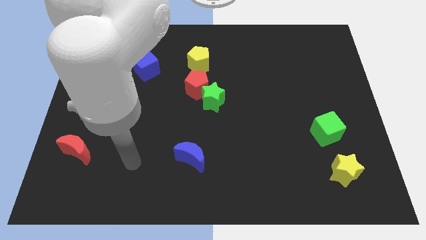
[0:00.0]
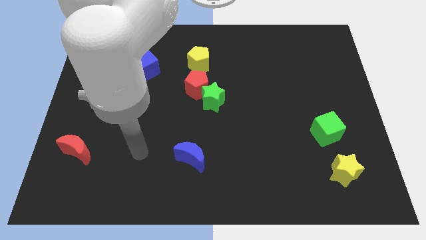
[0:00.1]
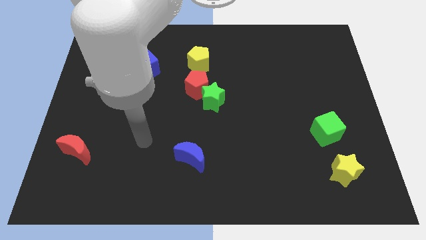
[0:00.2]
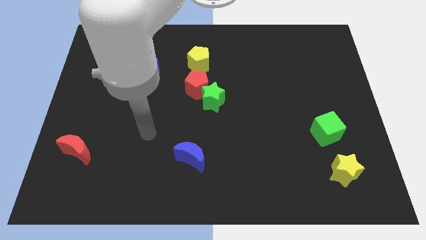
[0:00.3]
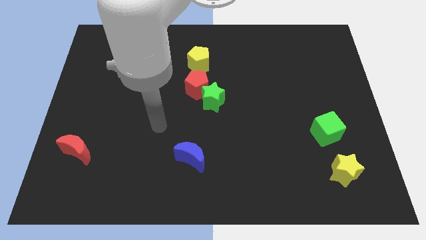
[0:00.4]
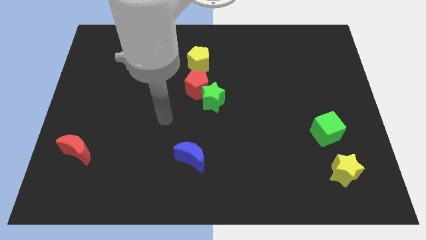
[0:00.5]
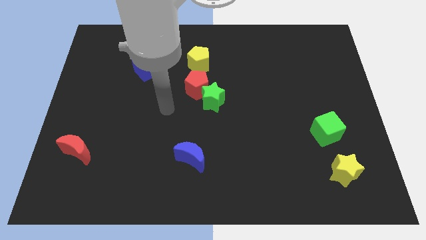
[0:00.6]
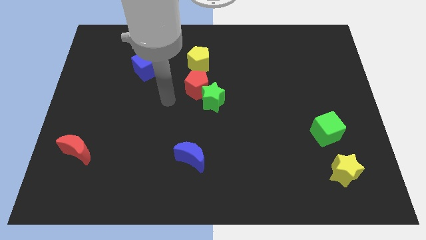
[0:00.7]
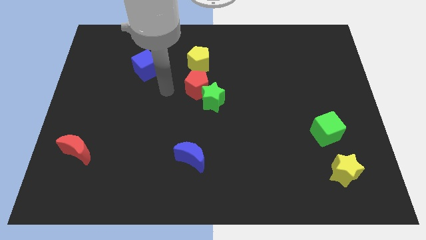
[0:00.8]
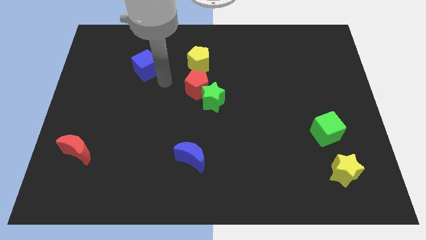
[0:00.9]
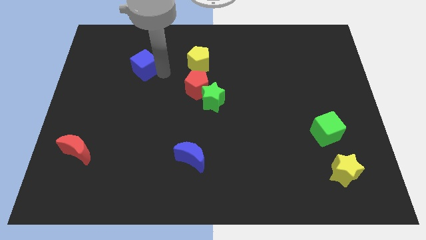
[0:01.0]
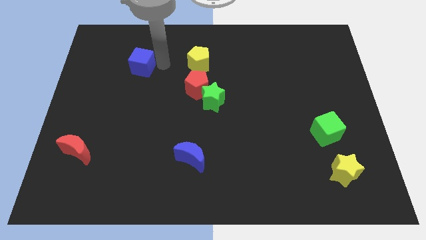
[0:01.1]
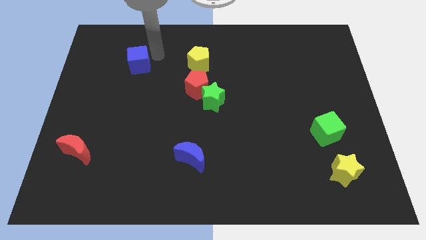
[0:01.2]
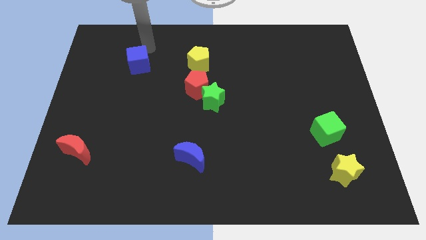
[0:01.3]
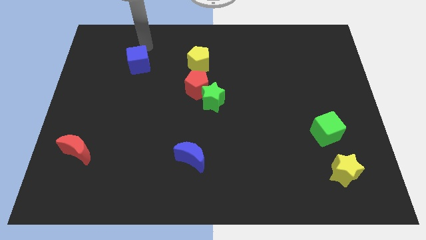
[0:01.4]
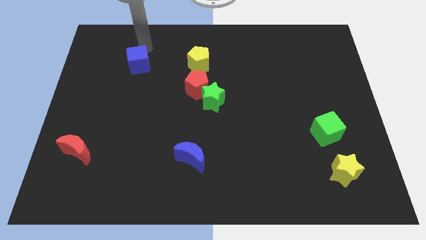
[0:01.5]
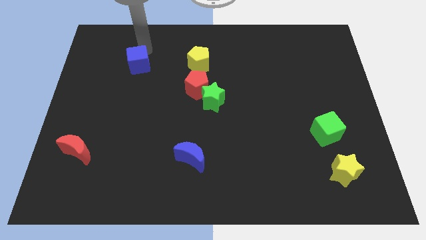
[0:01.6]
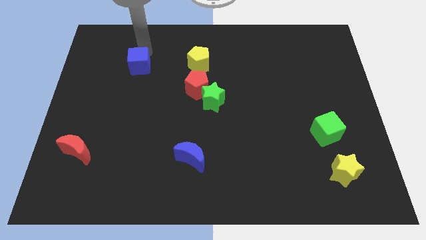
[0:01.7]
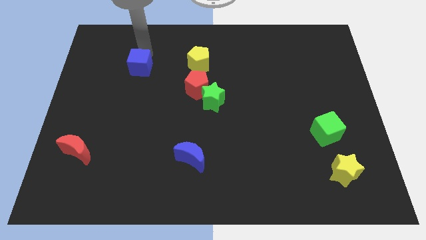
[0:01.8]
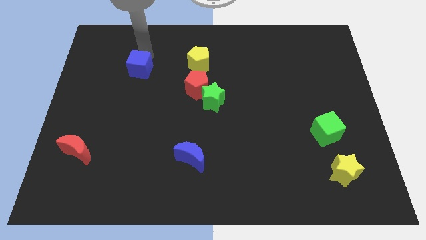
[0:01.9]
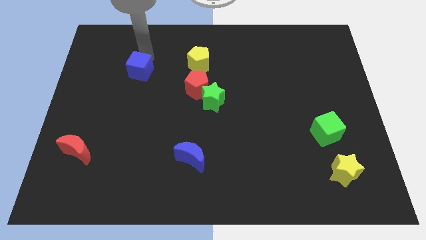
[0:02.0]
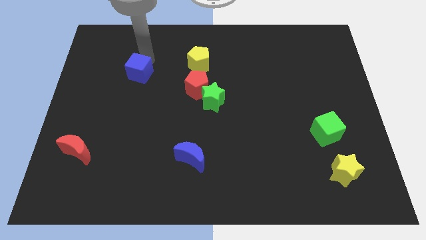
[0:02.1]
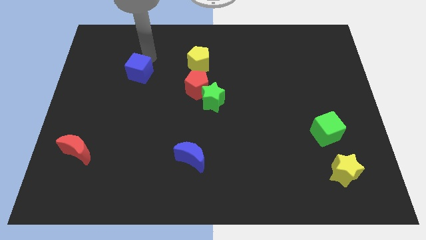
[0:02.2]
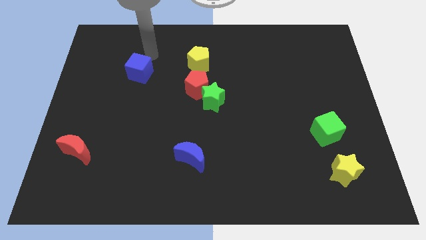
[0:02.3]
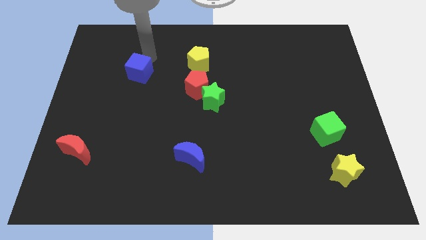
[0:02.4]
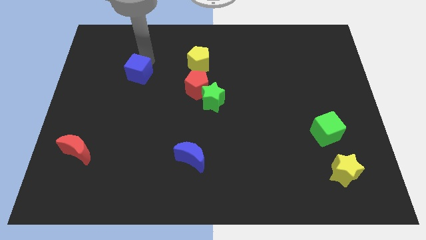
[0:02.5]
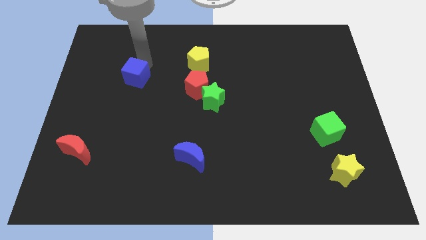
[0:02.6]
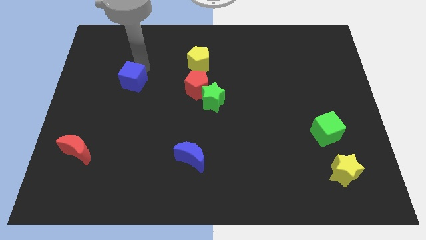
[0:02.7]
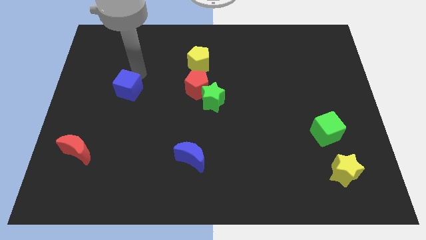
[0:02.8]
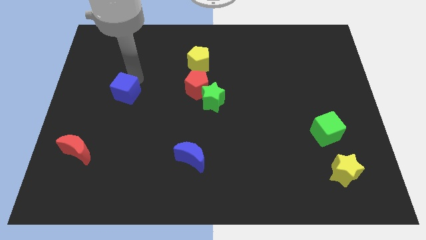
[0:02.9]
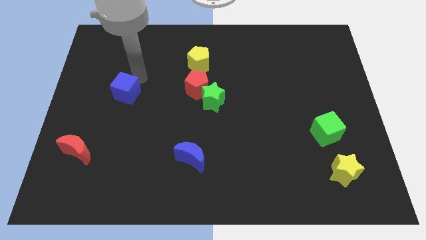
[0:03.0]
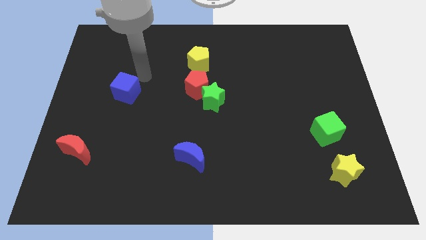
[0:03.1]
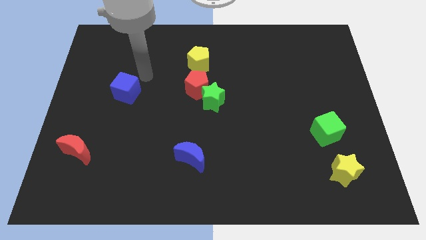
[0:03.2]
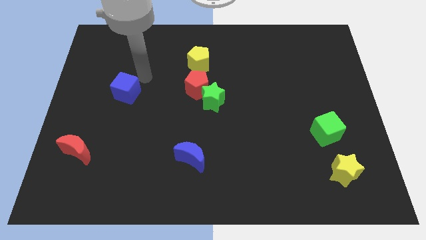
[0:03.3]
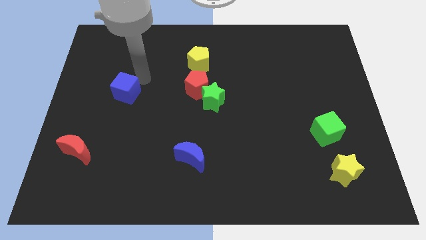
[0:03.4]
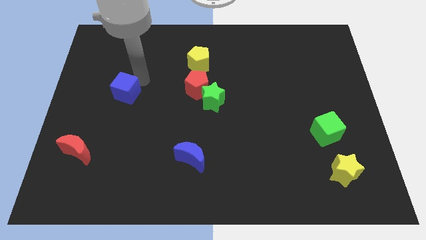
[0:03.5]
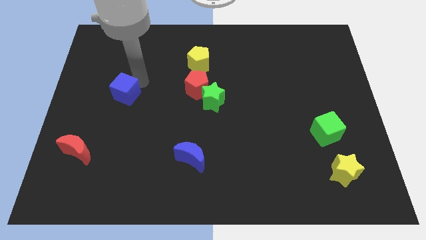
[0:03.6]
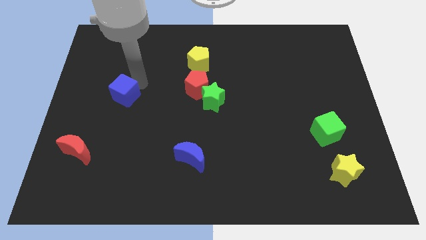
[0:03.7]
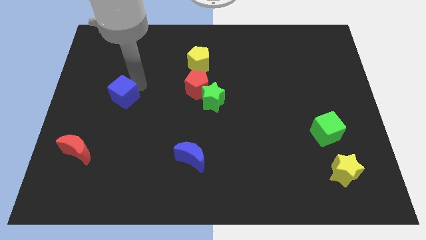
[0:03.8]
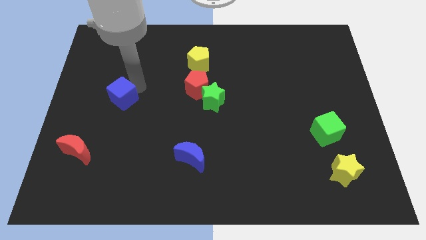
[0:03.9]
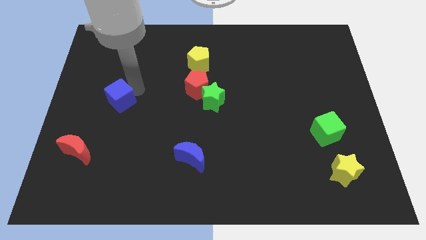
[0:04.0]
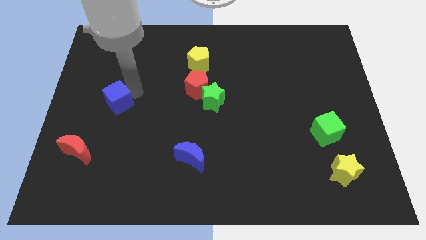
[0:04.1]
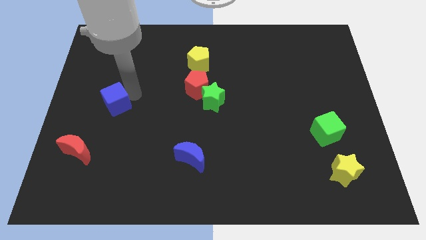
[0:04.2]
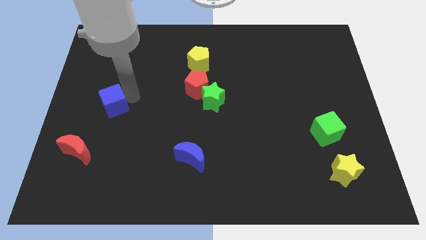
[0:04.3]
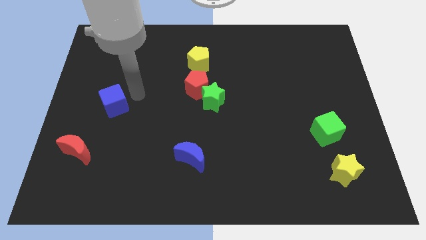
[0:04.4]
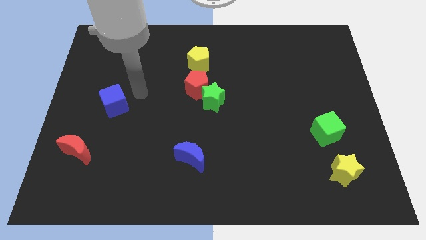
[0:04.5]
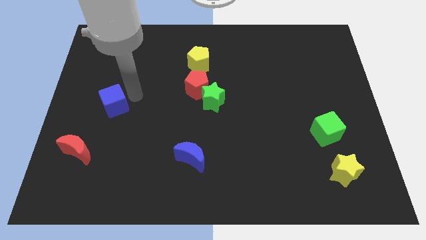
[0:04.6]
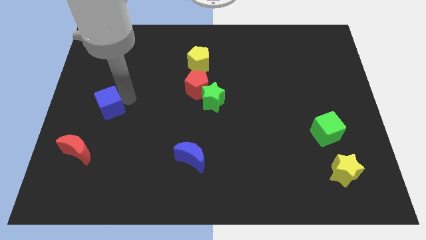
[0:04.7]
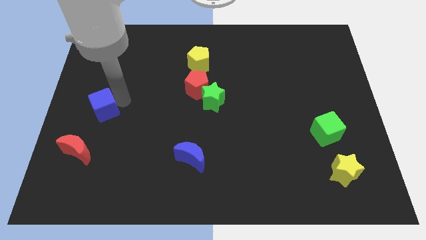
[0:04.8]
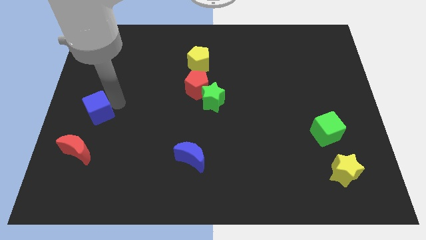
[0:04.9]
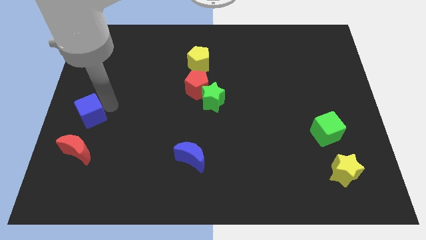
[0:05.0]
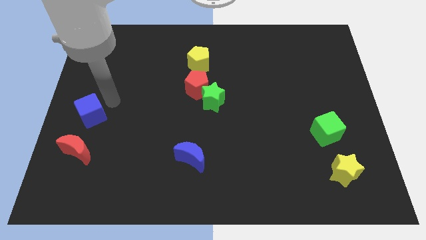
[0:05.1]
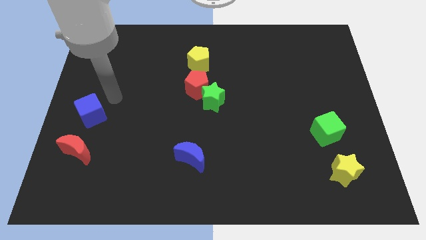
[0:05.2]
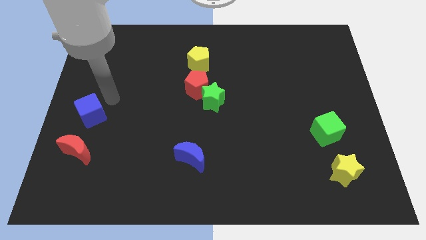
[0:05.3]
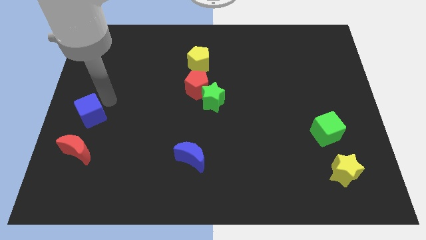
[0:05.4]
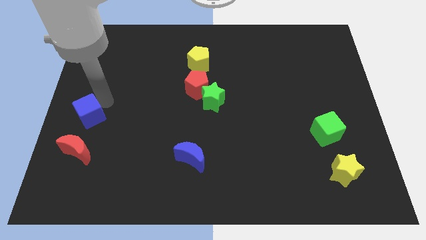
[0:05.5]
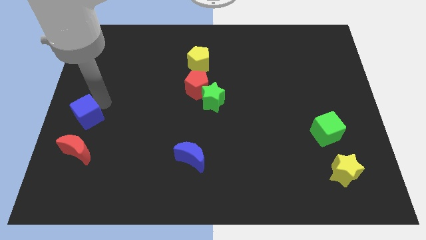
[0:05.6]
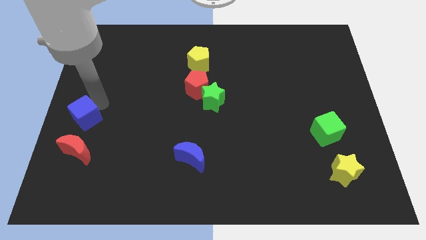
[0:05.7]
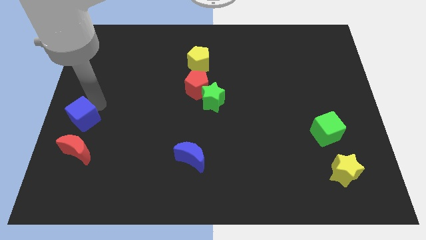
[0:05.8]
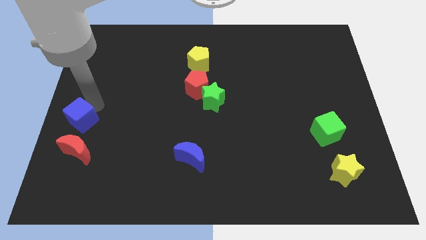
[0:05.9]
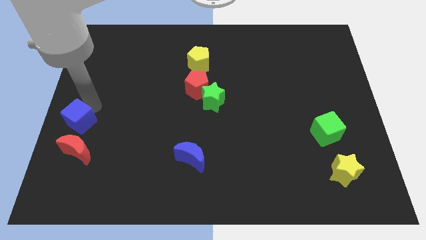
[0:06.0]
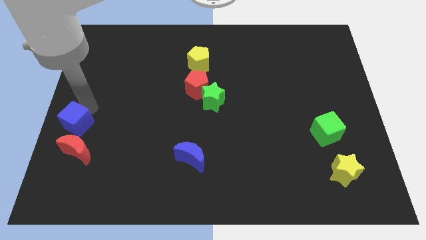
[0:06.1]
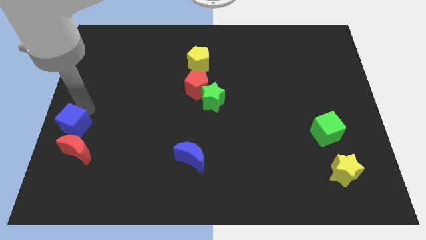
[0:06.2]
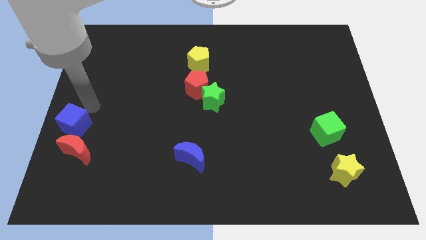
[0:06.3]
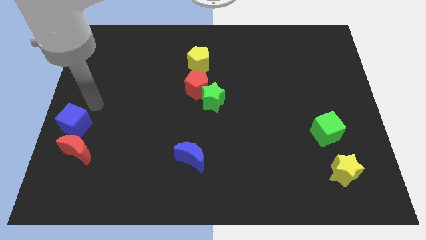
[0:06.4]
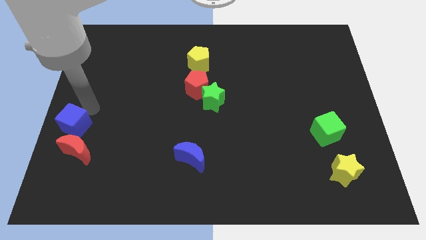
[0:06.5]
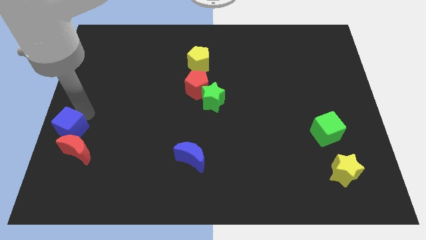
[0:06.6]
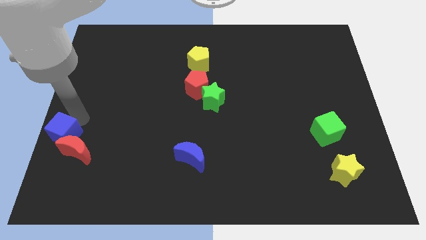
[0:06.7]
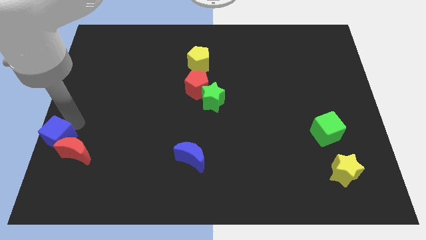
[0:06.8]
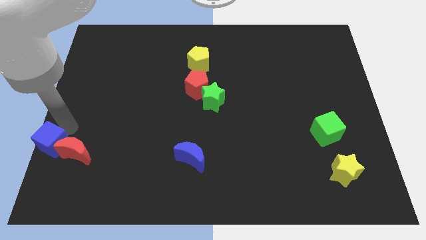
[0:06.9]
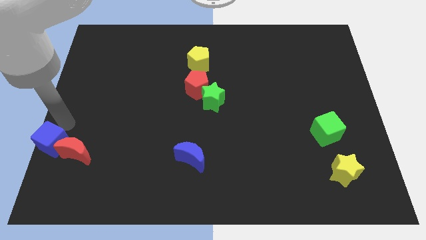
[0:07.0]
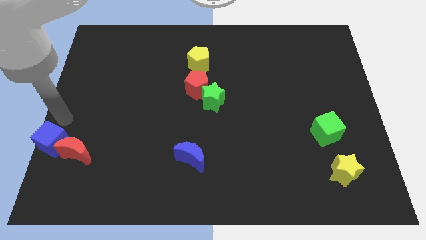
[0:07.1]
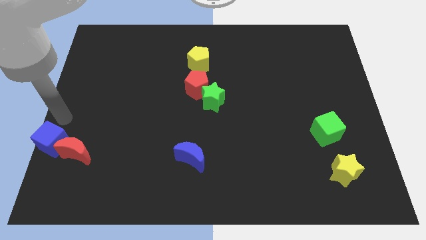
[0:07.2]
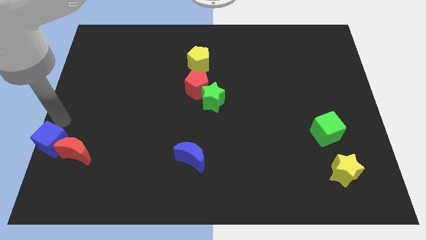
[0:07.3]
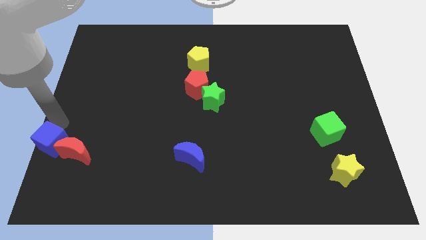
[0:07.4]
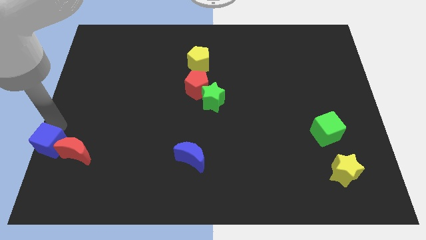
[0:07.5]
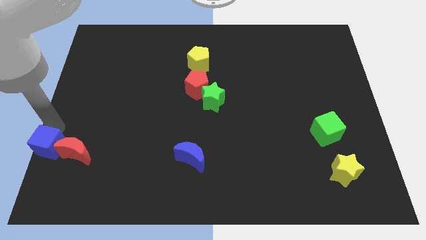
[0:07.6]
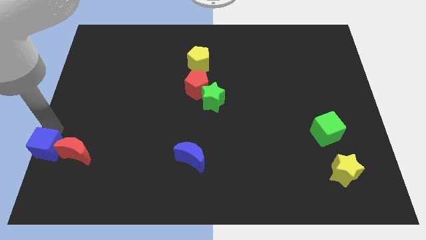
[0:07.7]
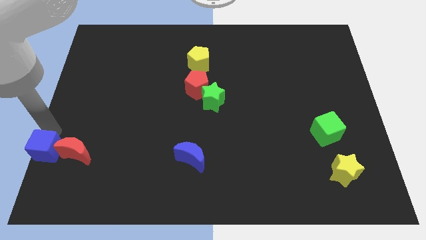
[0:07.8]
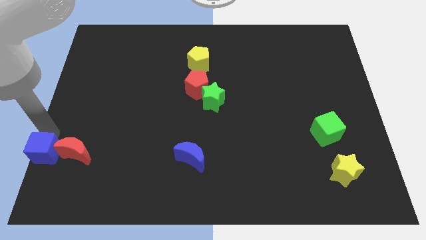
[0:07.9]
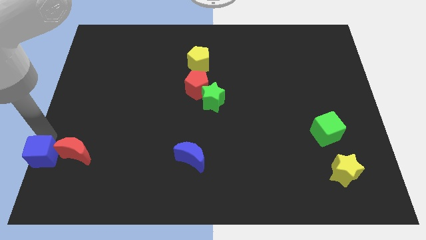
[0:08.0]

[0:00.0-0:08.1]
slide the blue cube to the bottom left
